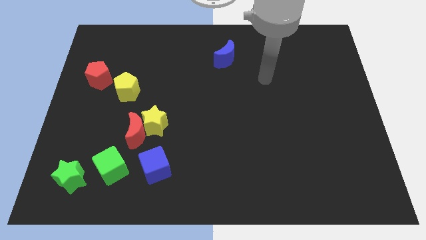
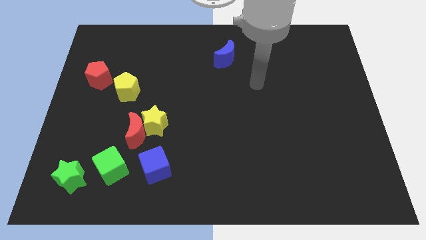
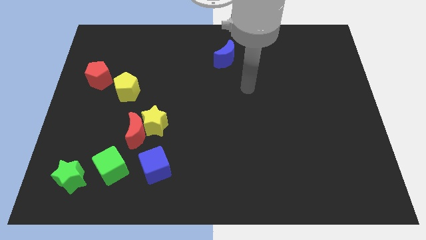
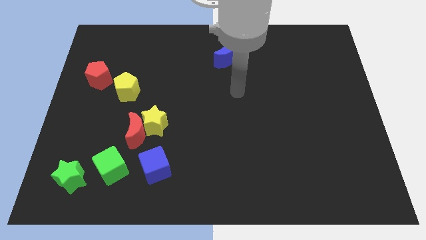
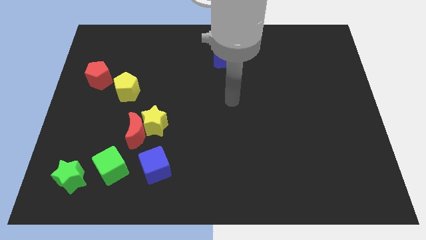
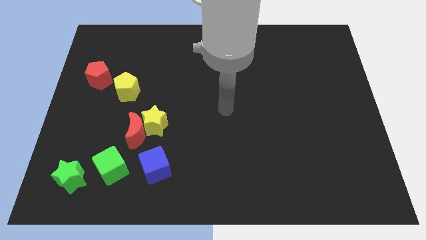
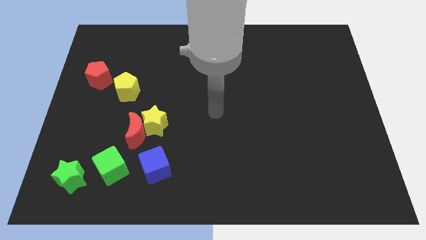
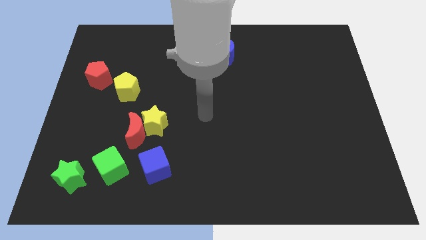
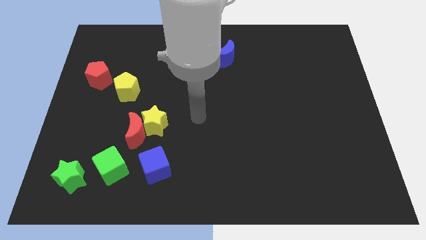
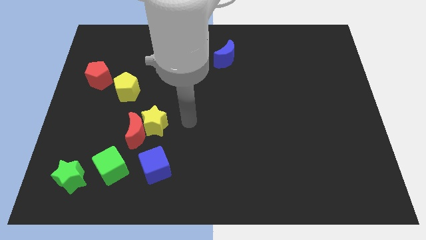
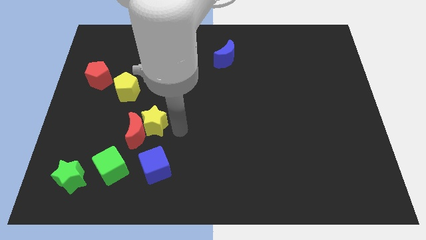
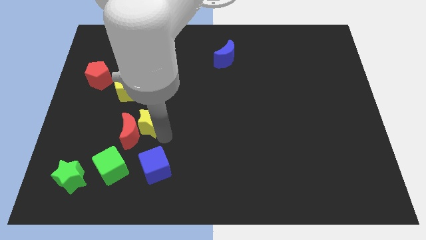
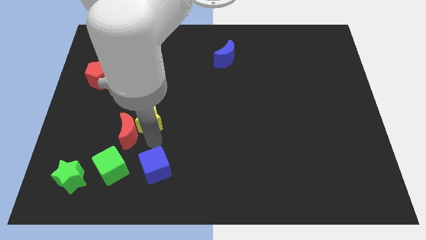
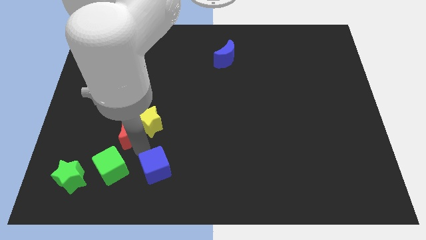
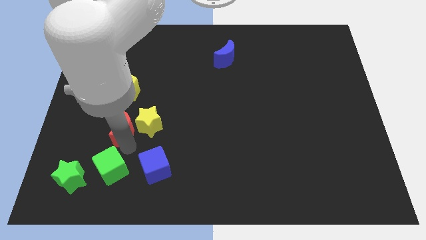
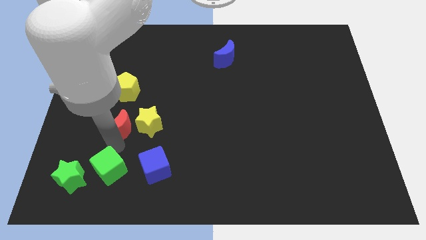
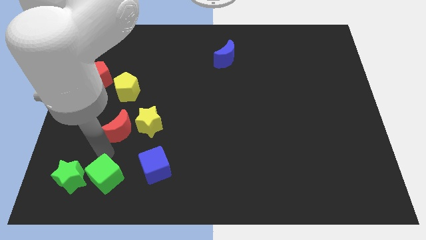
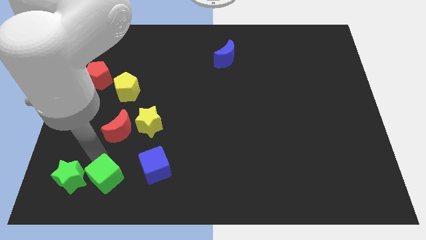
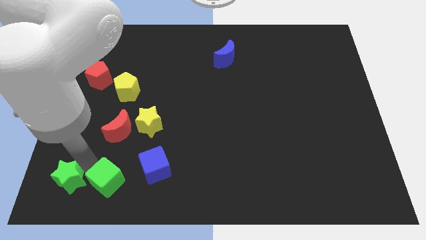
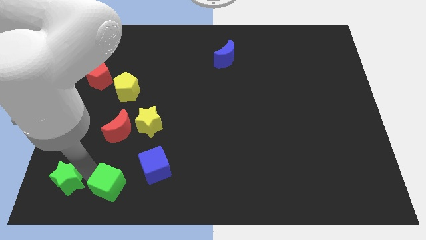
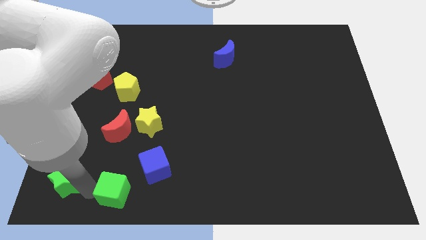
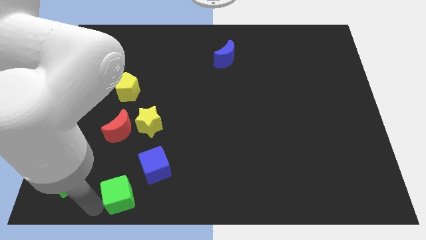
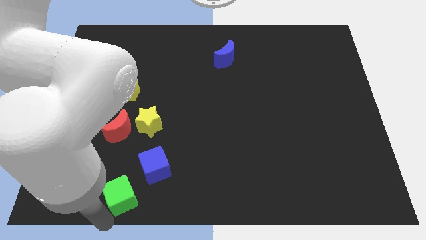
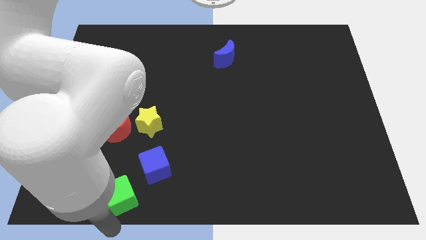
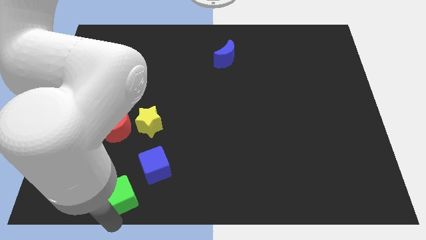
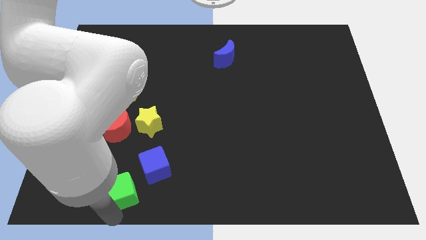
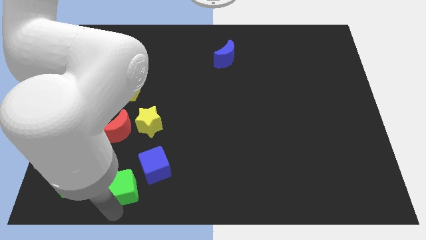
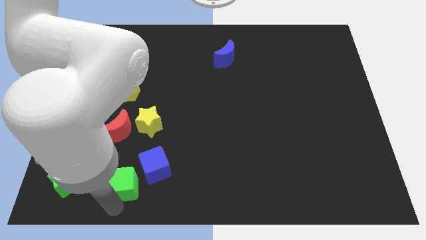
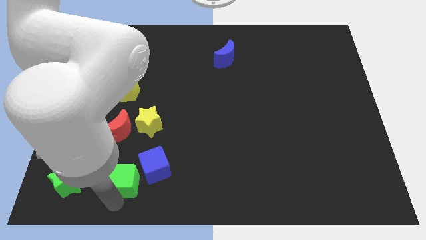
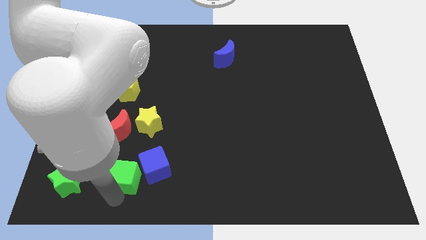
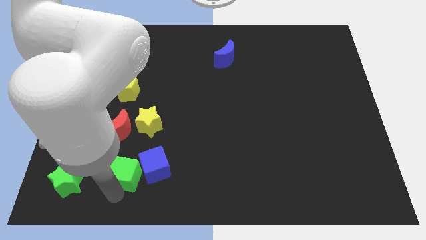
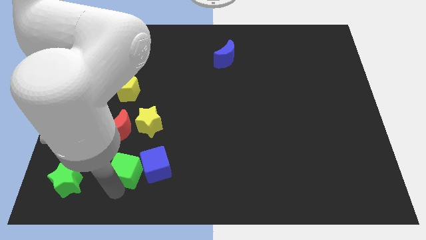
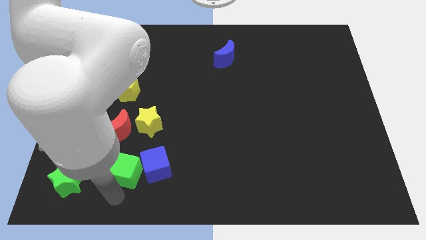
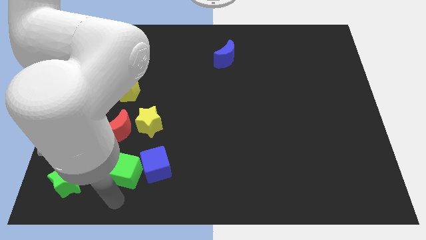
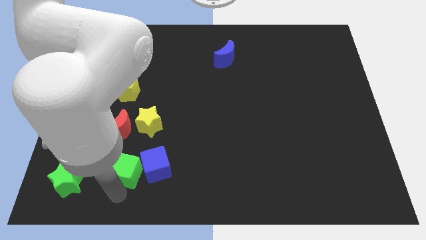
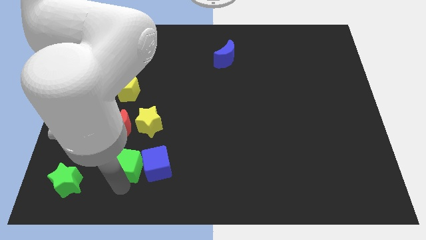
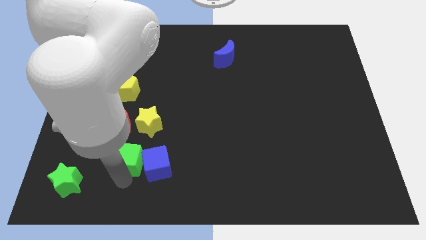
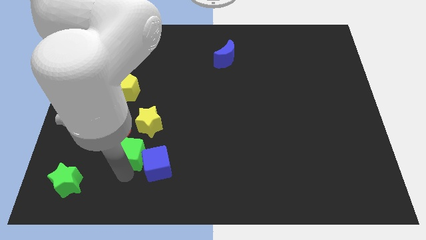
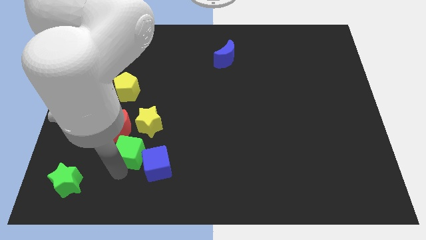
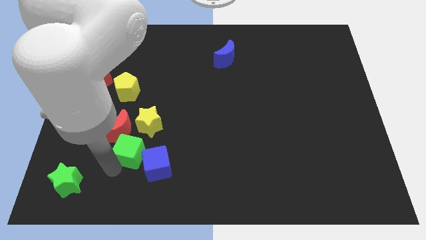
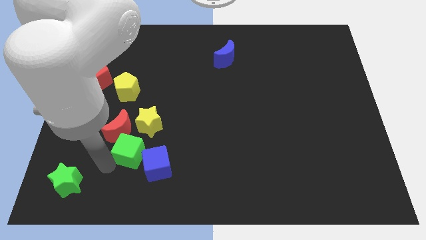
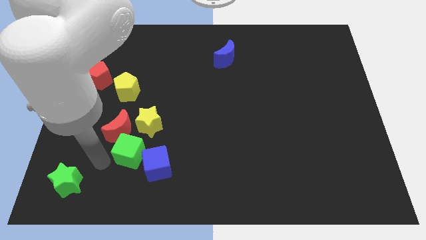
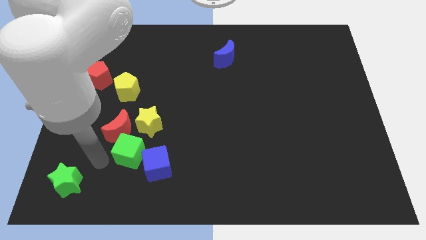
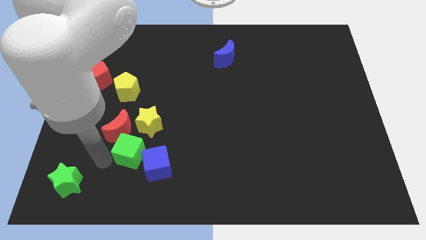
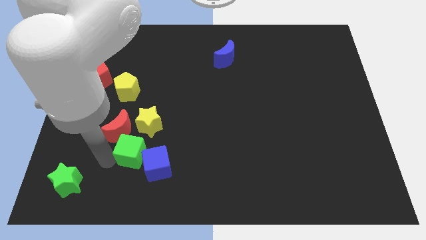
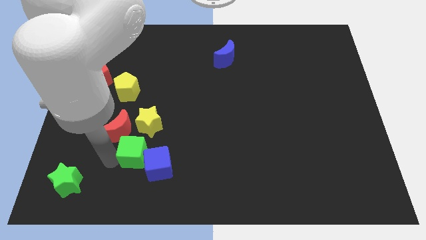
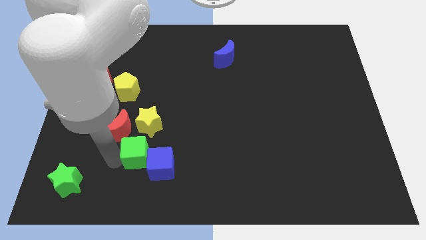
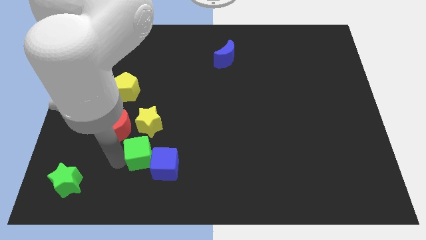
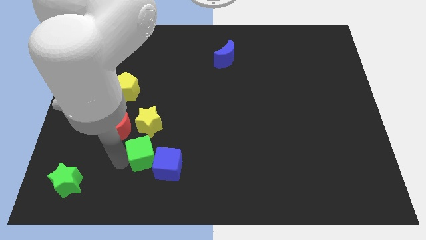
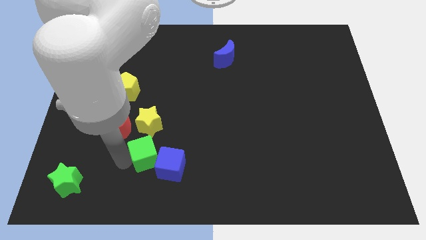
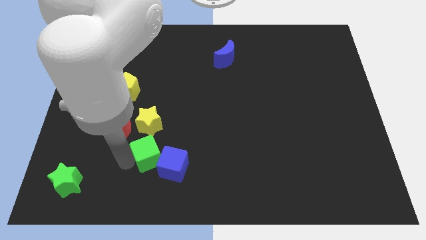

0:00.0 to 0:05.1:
slightly push the green cube diagonally up and to the right

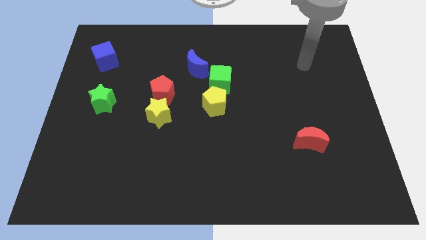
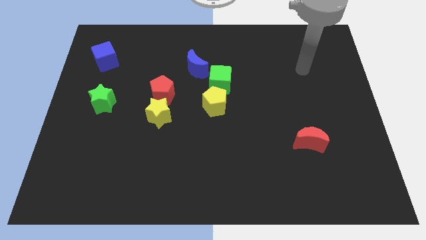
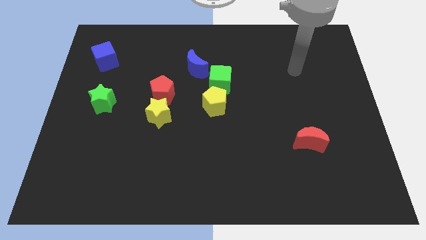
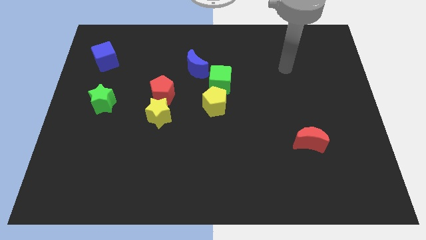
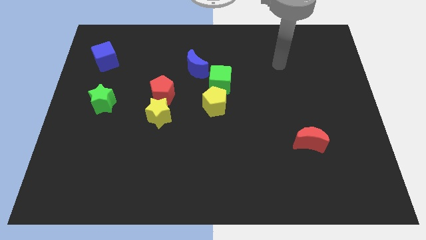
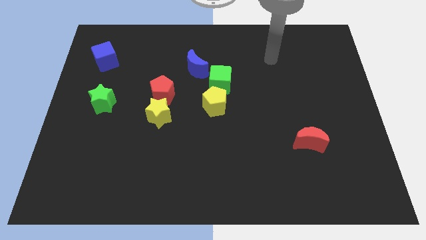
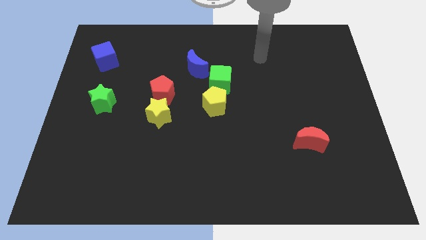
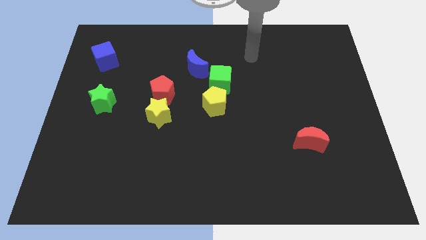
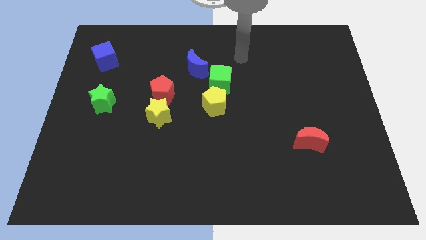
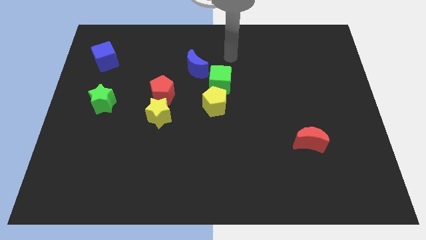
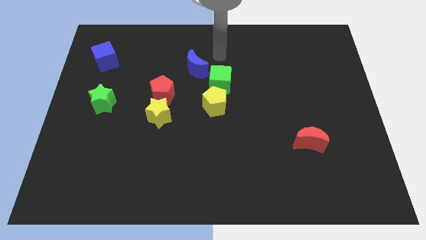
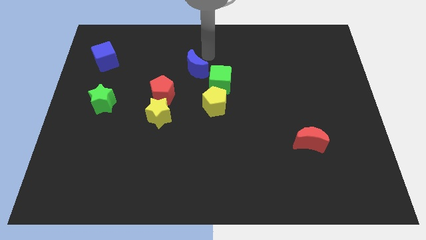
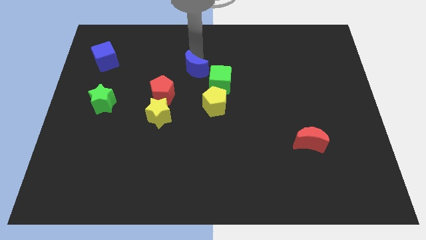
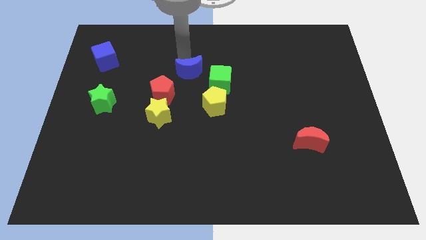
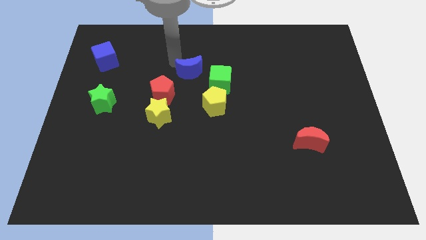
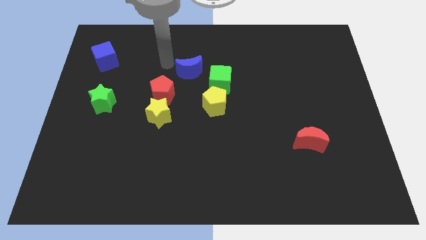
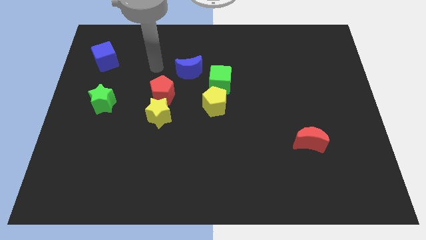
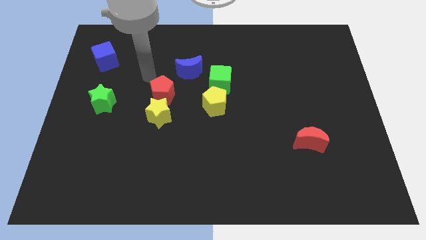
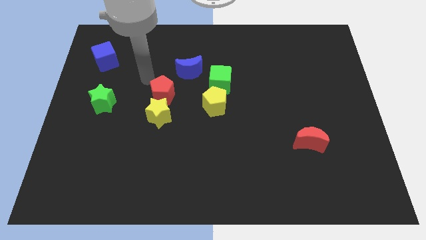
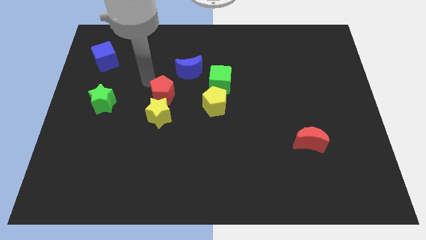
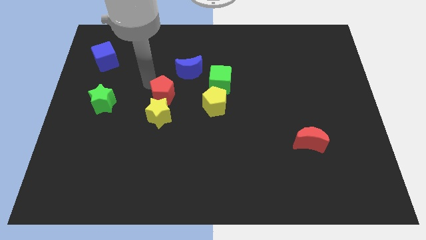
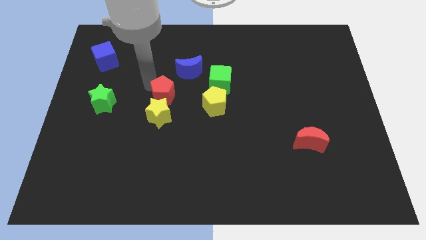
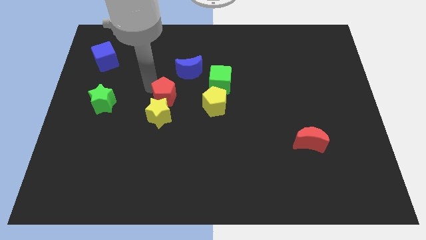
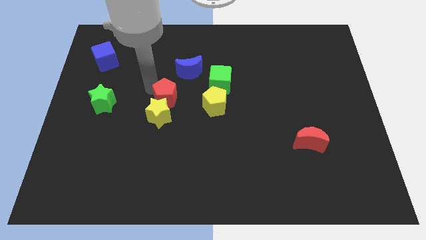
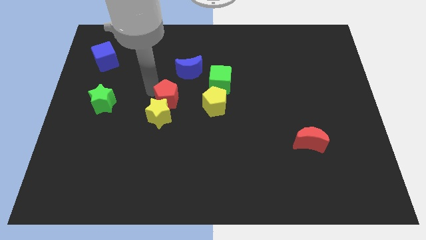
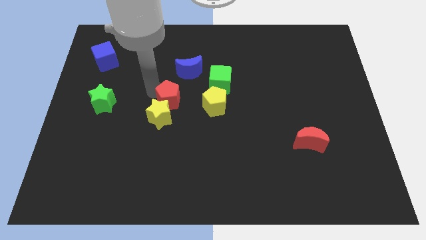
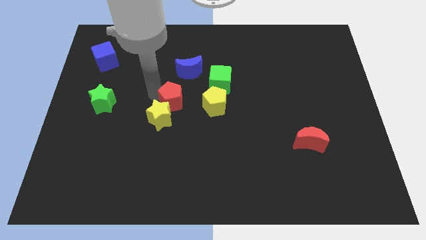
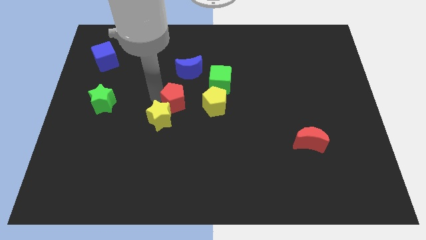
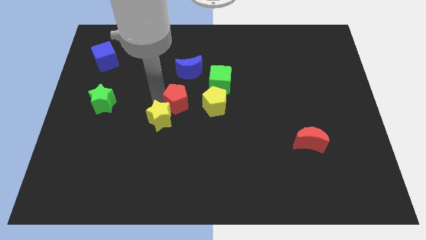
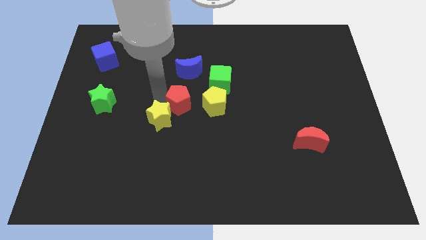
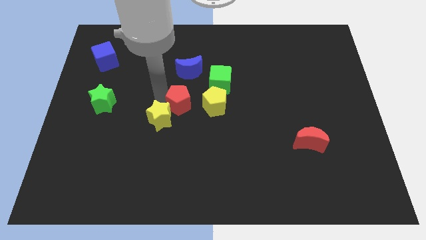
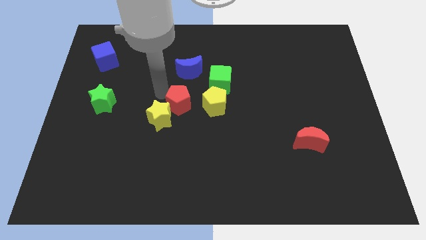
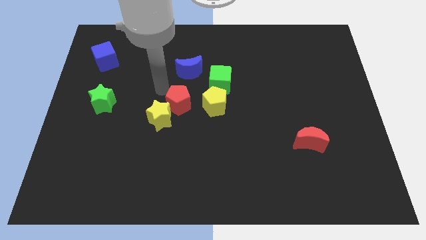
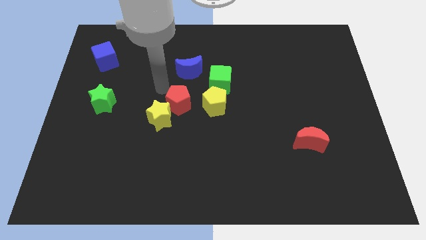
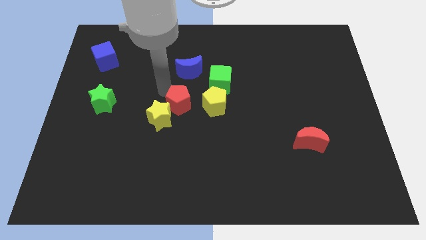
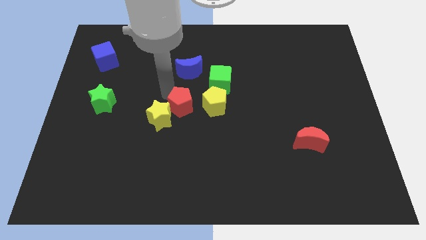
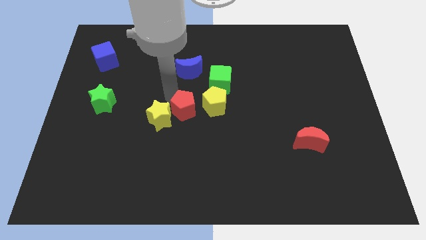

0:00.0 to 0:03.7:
slide the red pentagon down and right diagonally a little
